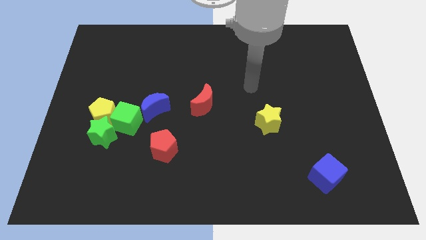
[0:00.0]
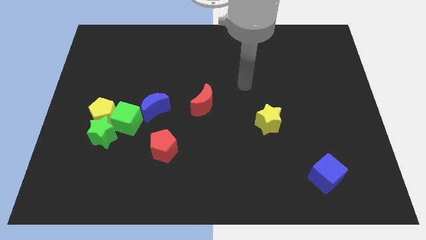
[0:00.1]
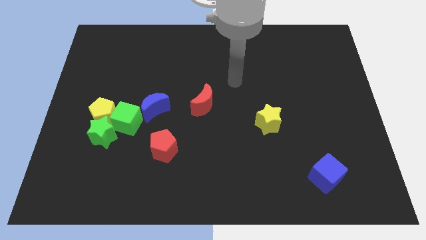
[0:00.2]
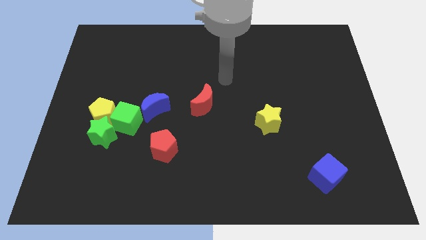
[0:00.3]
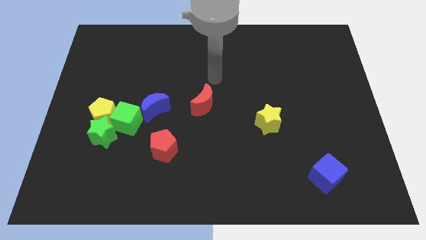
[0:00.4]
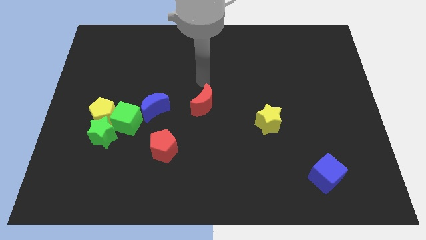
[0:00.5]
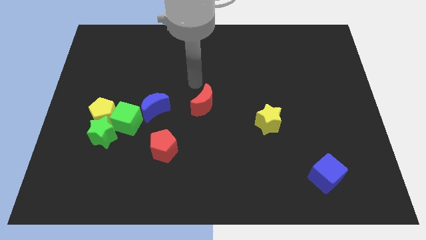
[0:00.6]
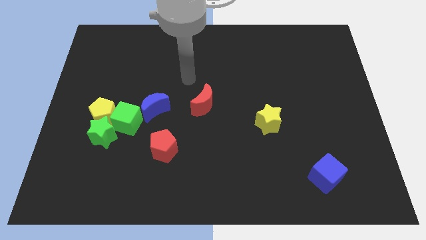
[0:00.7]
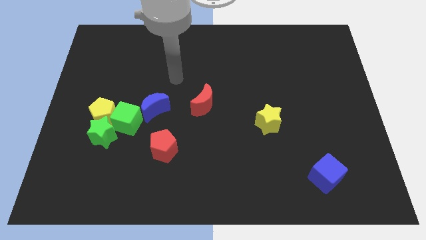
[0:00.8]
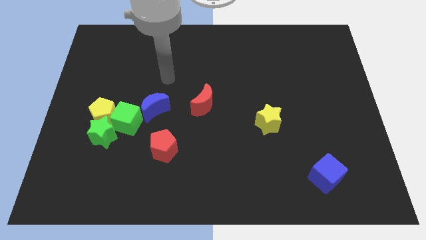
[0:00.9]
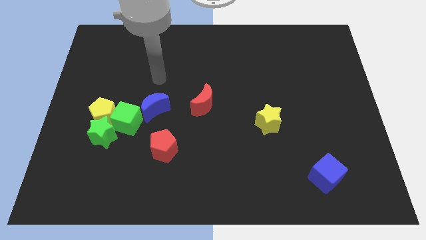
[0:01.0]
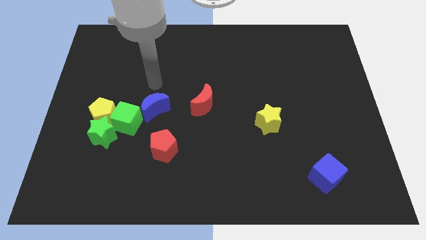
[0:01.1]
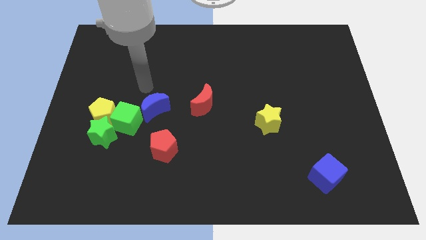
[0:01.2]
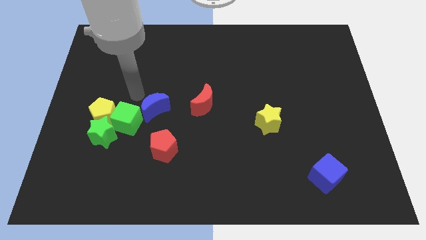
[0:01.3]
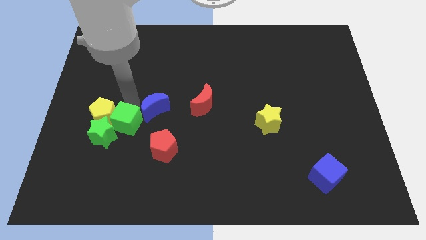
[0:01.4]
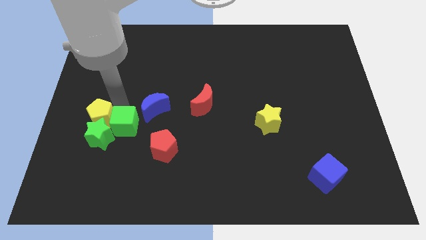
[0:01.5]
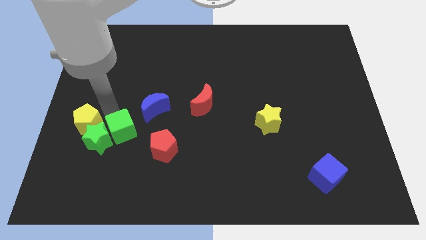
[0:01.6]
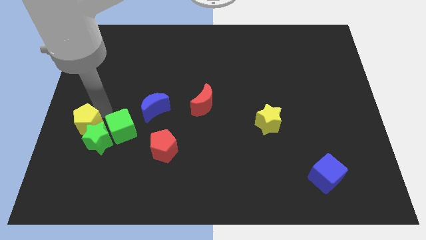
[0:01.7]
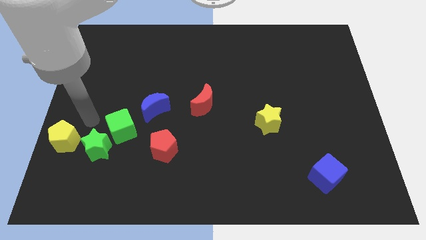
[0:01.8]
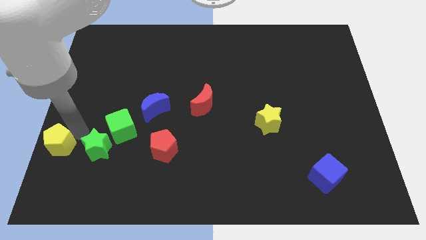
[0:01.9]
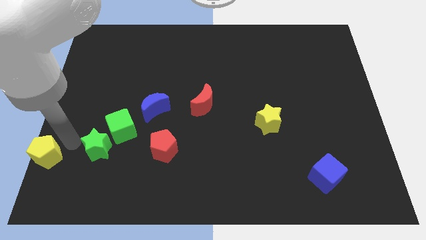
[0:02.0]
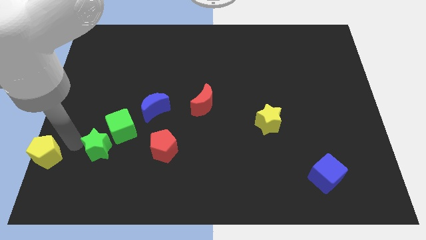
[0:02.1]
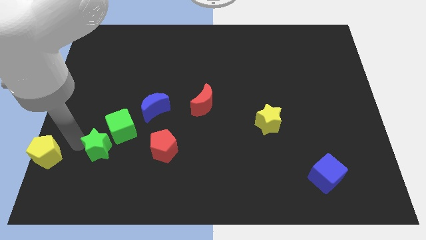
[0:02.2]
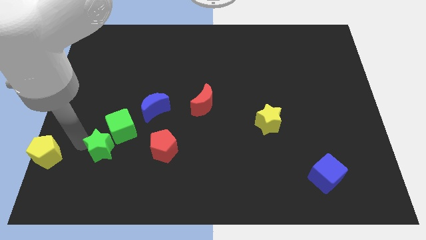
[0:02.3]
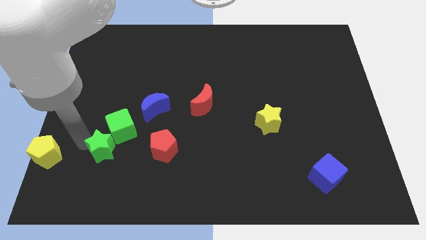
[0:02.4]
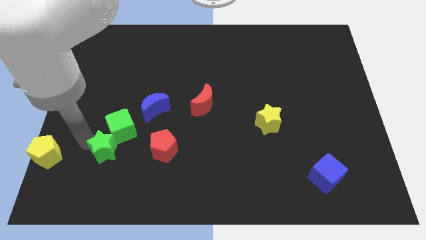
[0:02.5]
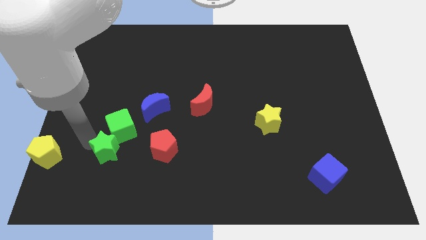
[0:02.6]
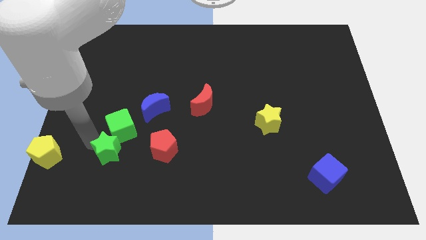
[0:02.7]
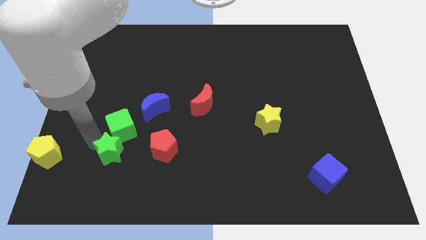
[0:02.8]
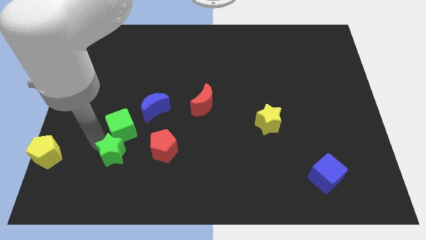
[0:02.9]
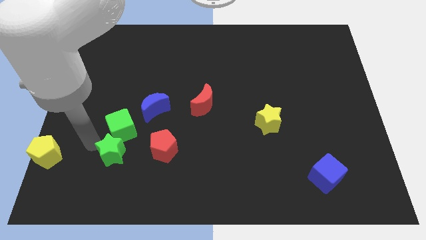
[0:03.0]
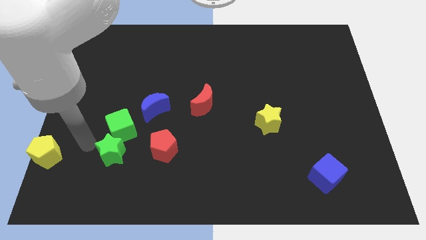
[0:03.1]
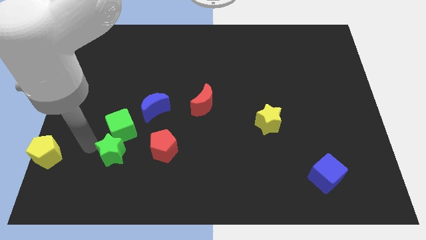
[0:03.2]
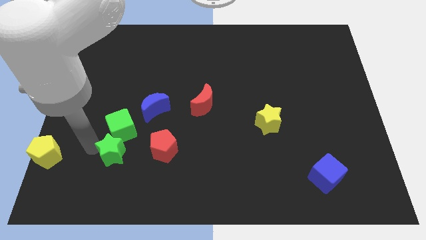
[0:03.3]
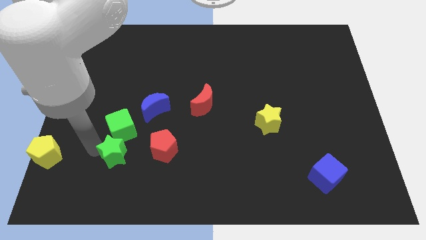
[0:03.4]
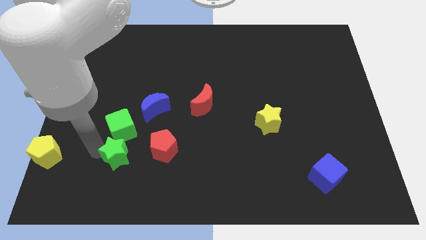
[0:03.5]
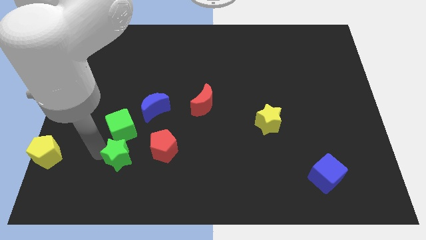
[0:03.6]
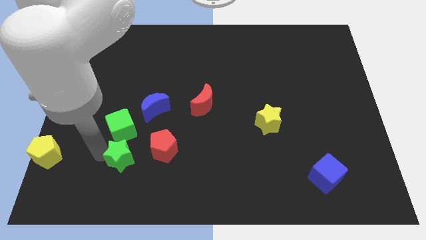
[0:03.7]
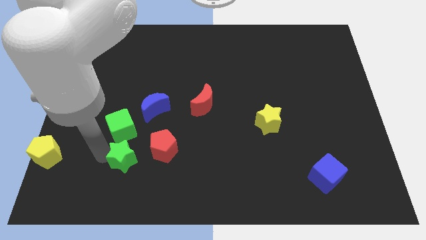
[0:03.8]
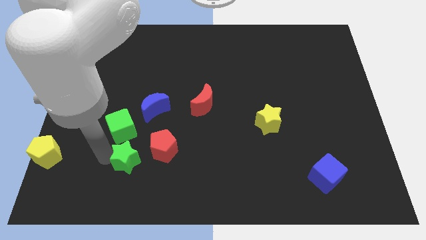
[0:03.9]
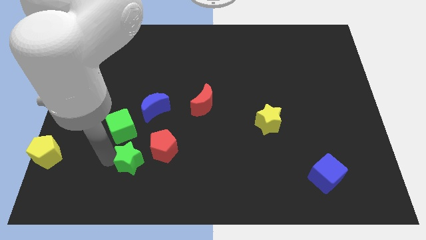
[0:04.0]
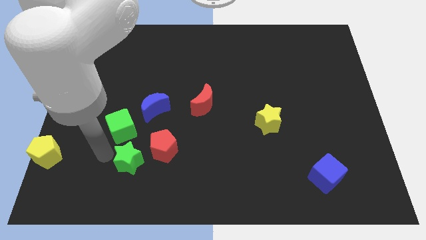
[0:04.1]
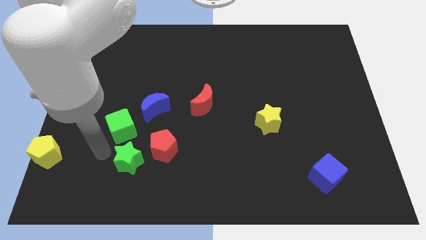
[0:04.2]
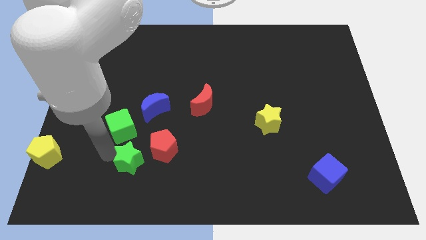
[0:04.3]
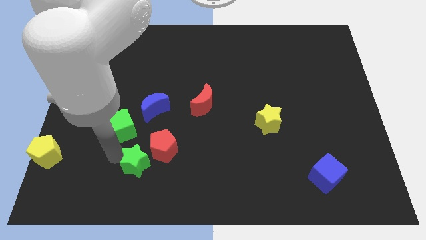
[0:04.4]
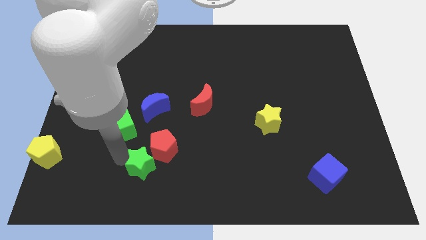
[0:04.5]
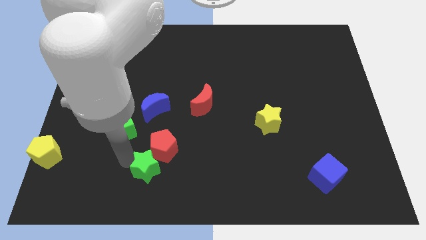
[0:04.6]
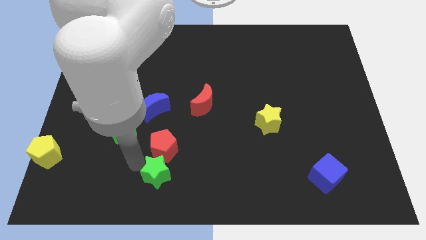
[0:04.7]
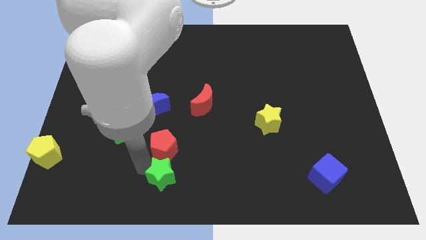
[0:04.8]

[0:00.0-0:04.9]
move the green star to the bottom

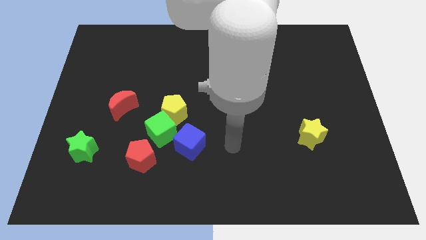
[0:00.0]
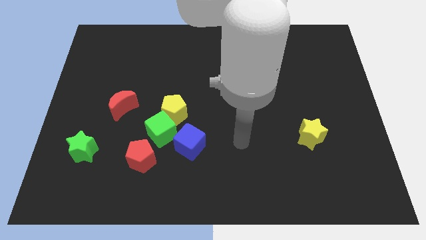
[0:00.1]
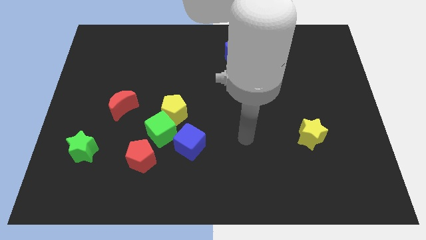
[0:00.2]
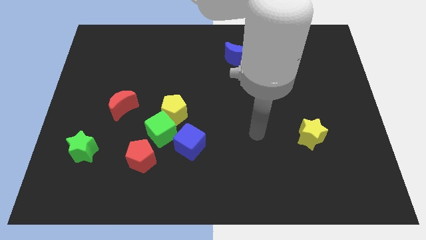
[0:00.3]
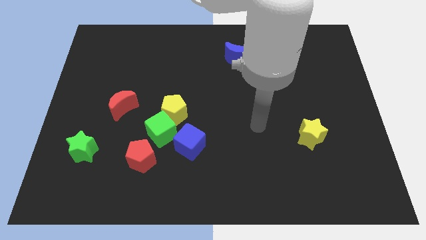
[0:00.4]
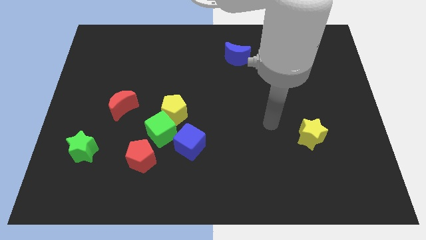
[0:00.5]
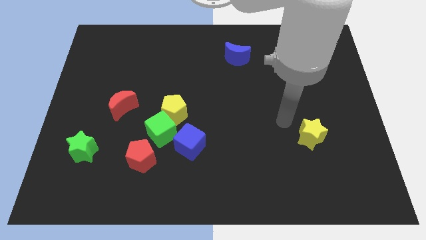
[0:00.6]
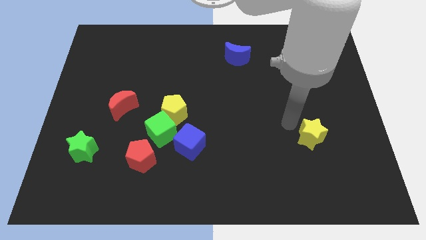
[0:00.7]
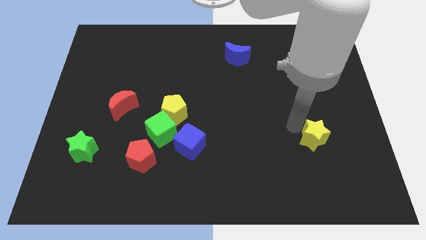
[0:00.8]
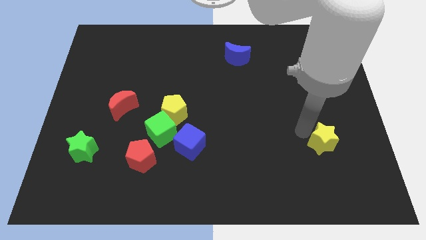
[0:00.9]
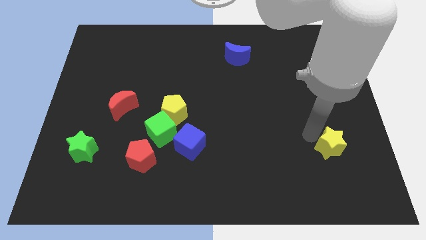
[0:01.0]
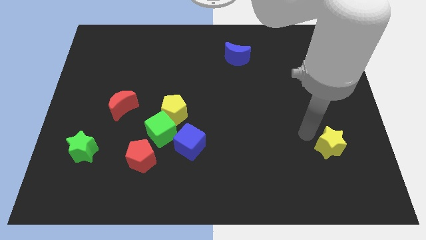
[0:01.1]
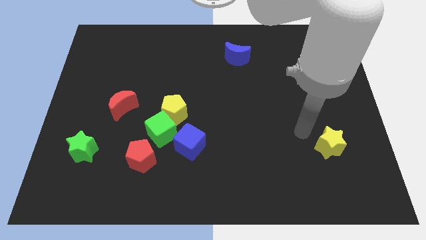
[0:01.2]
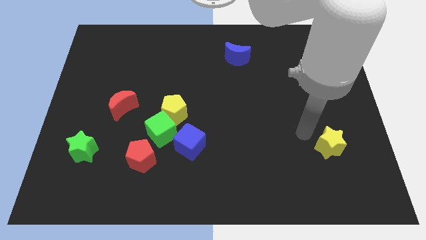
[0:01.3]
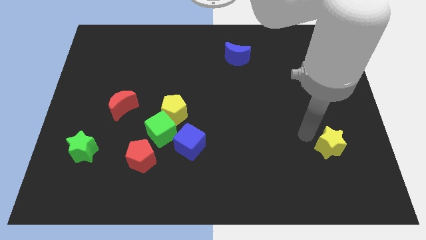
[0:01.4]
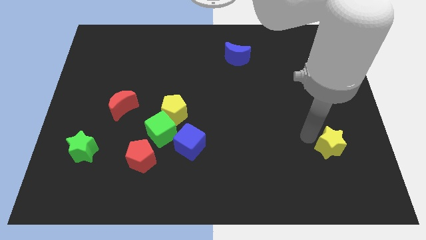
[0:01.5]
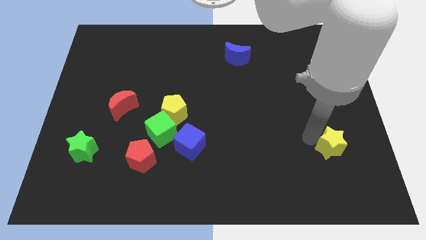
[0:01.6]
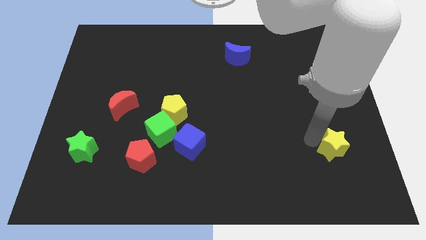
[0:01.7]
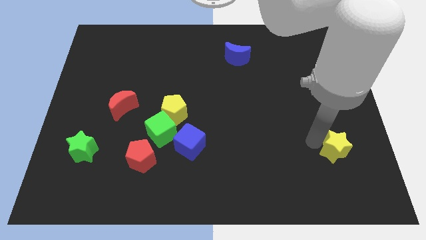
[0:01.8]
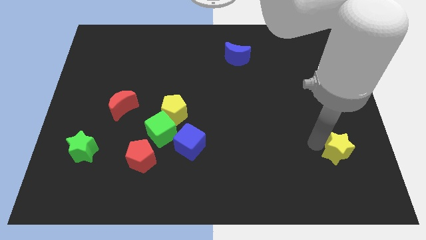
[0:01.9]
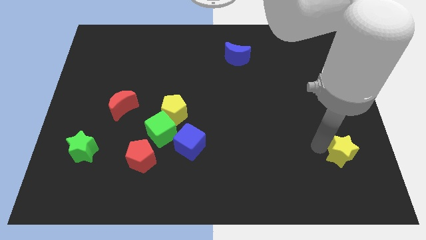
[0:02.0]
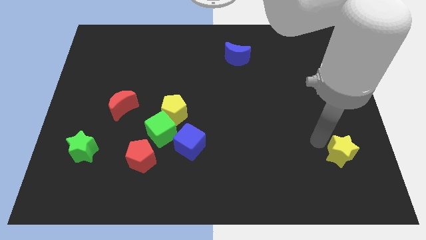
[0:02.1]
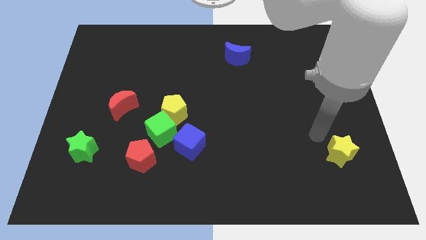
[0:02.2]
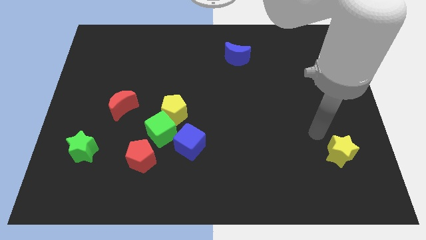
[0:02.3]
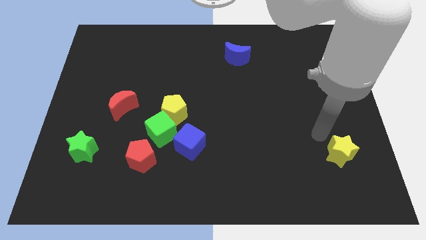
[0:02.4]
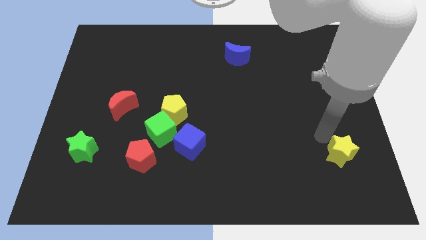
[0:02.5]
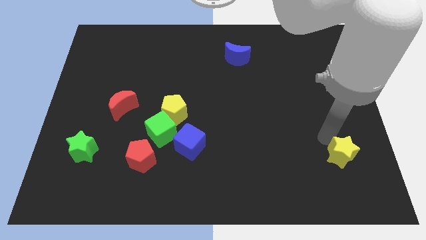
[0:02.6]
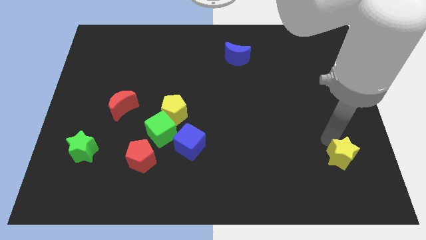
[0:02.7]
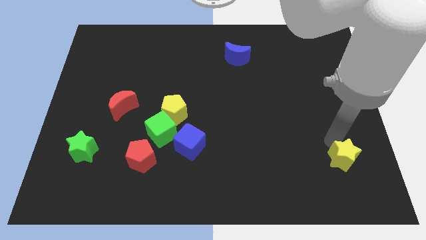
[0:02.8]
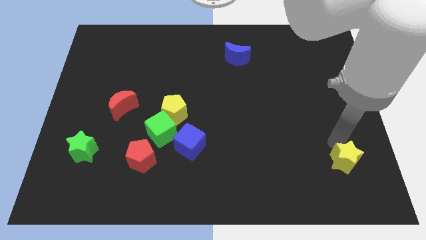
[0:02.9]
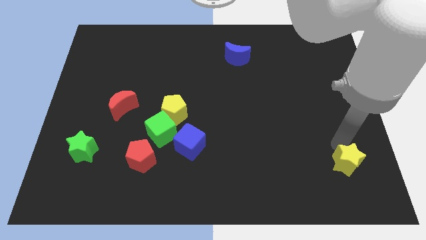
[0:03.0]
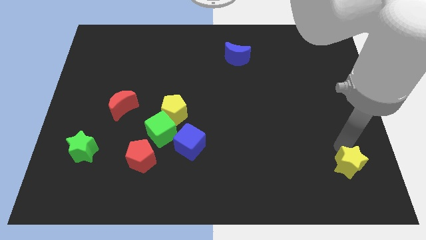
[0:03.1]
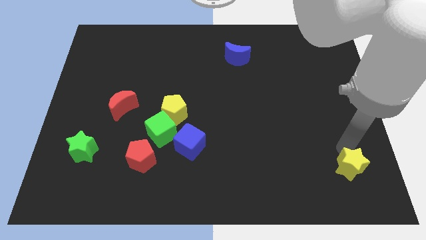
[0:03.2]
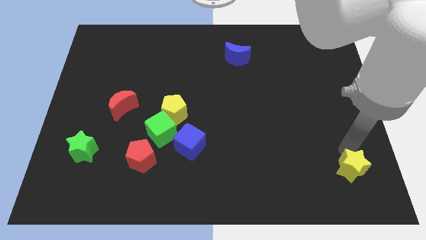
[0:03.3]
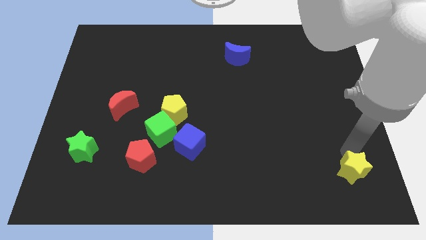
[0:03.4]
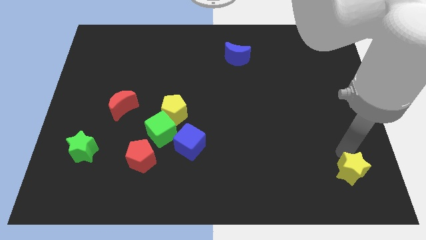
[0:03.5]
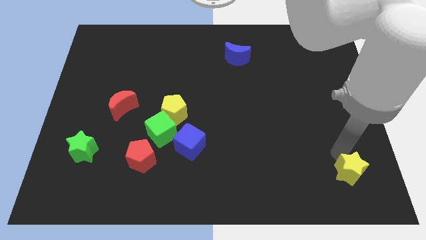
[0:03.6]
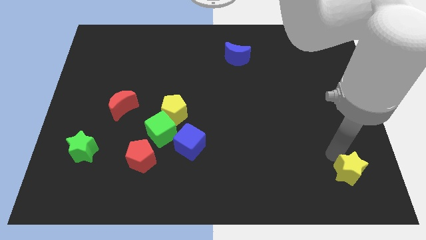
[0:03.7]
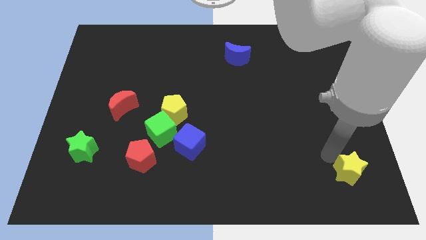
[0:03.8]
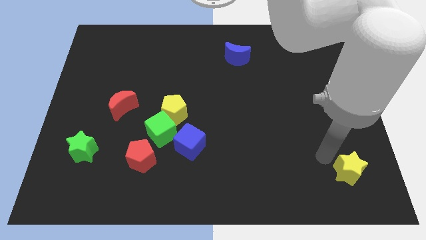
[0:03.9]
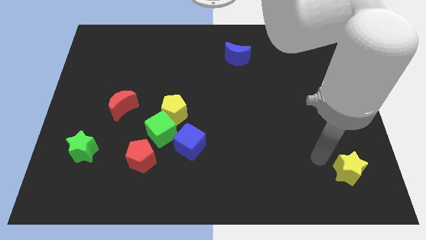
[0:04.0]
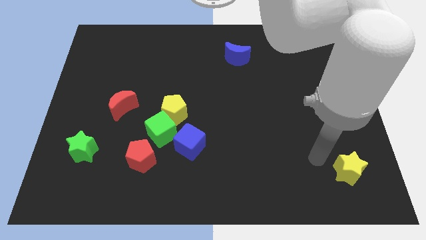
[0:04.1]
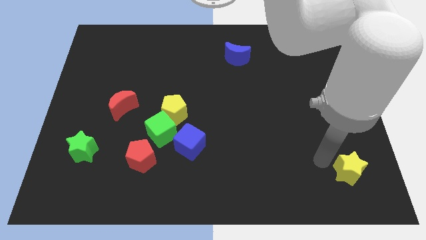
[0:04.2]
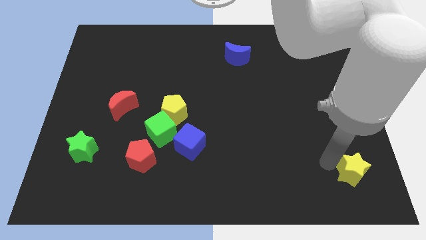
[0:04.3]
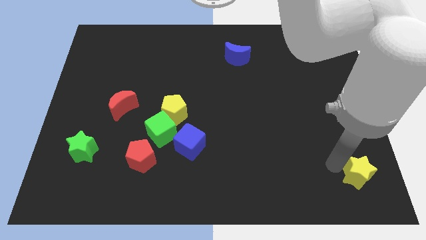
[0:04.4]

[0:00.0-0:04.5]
move the yellow star to the bottom right of the board
